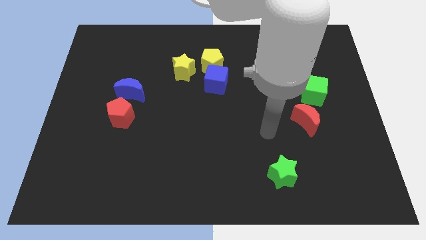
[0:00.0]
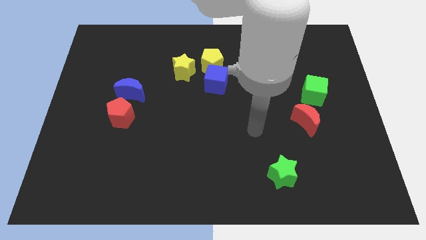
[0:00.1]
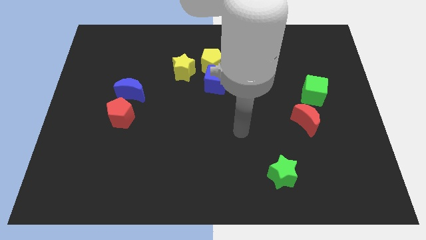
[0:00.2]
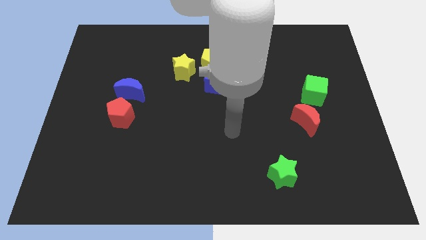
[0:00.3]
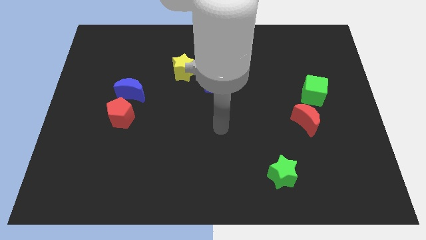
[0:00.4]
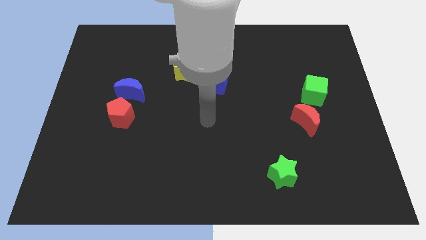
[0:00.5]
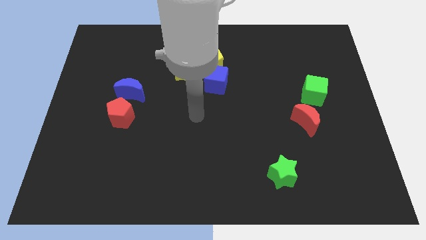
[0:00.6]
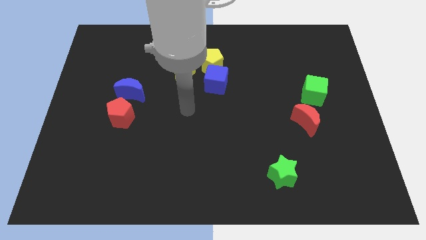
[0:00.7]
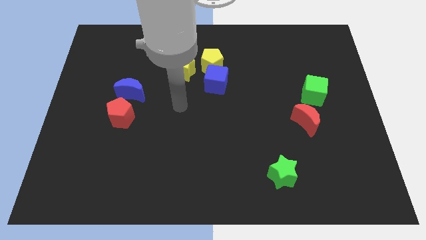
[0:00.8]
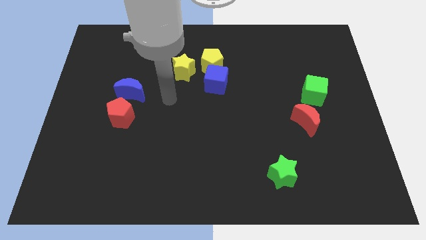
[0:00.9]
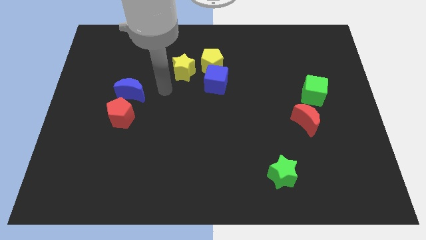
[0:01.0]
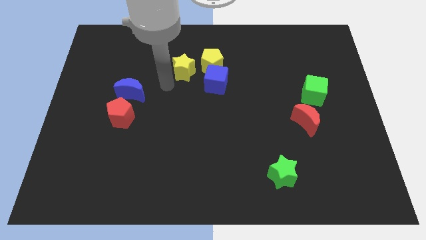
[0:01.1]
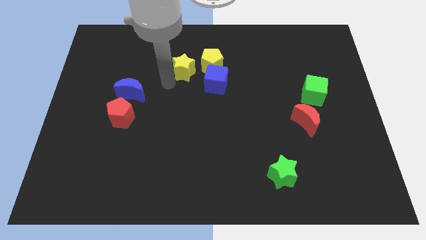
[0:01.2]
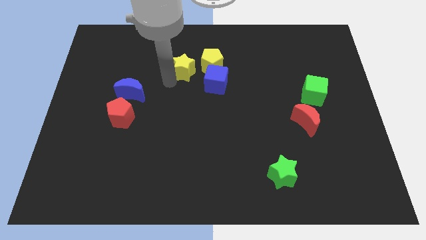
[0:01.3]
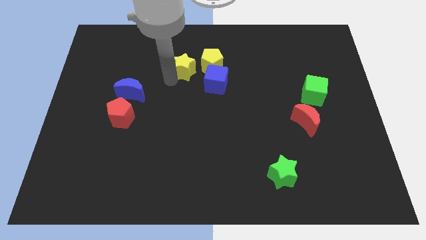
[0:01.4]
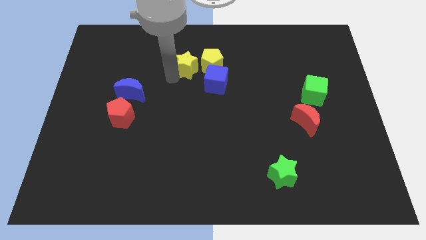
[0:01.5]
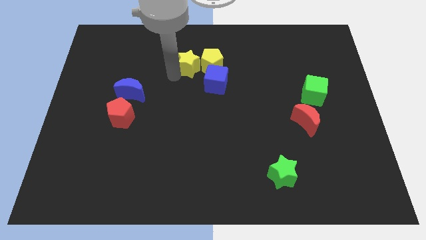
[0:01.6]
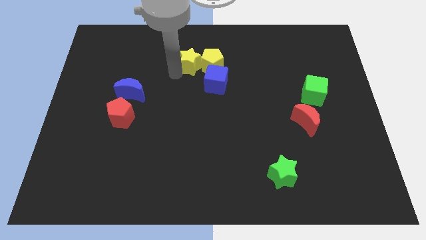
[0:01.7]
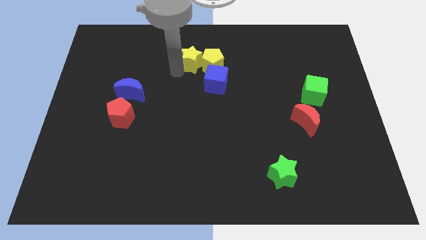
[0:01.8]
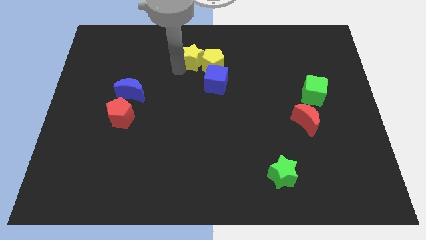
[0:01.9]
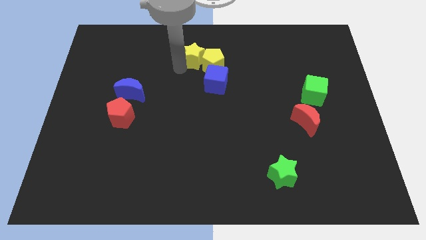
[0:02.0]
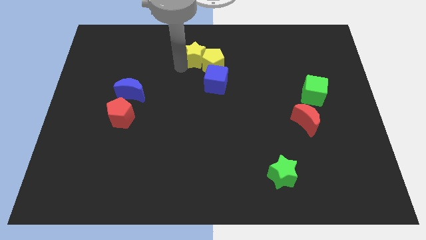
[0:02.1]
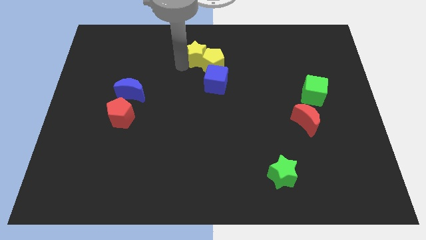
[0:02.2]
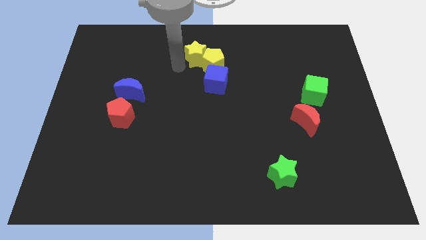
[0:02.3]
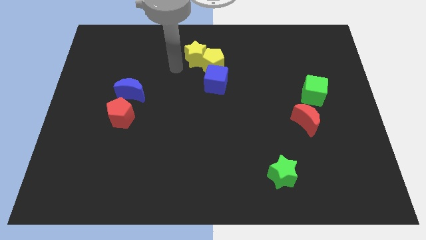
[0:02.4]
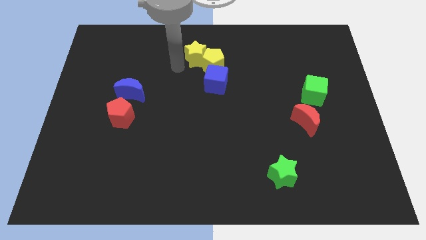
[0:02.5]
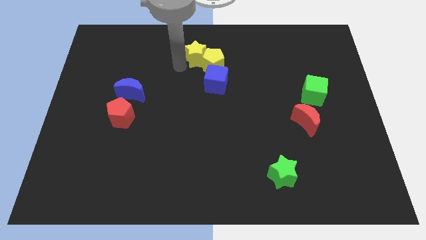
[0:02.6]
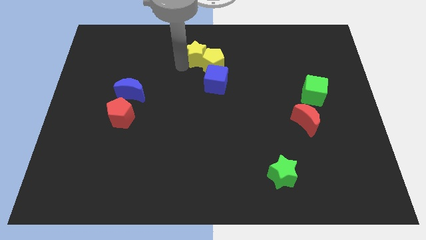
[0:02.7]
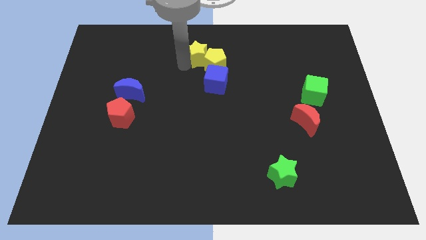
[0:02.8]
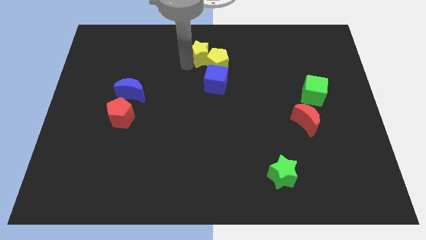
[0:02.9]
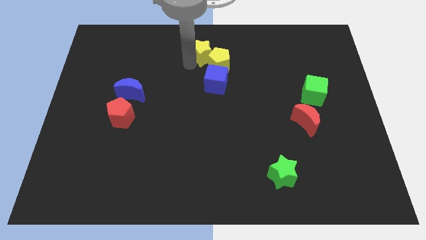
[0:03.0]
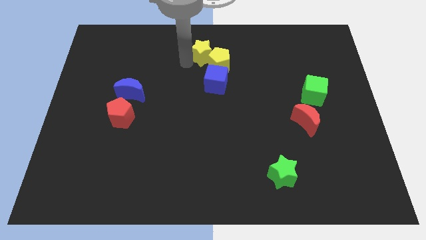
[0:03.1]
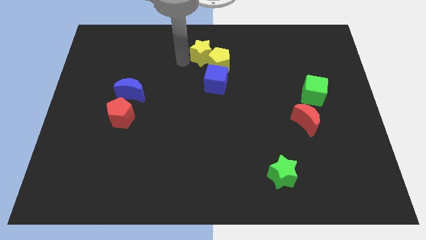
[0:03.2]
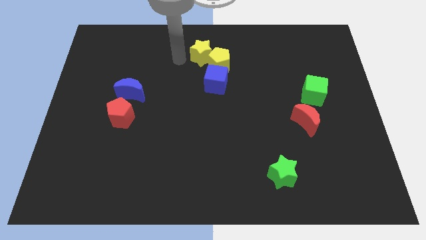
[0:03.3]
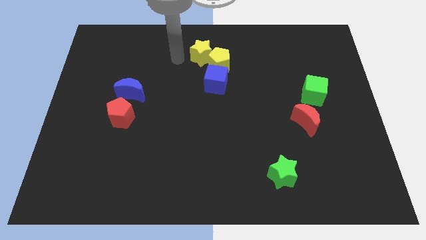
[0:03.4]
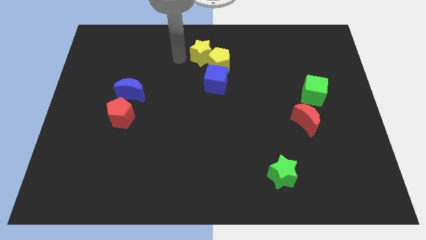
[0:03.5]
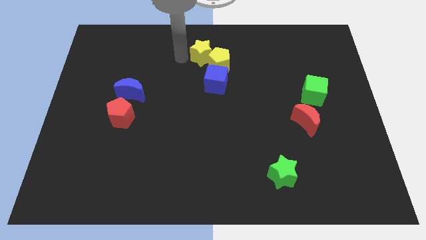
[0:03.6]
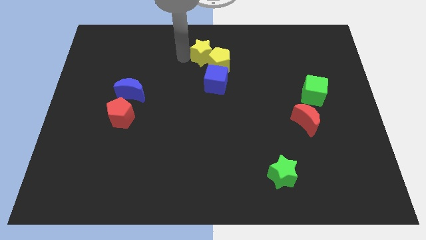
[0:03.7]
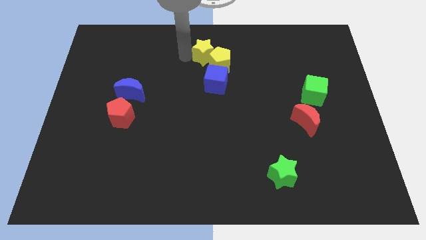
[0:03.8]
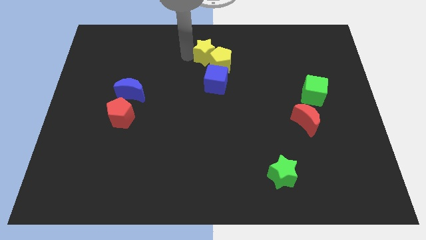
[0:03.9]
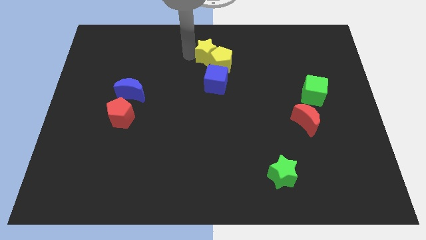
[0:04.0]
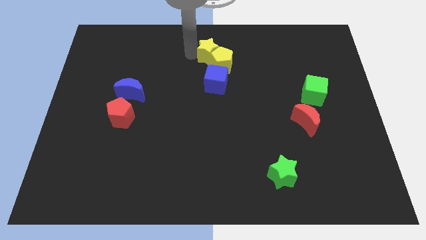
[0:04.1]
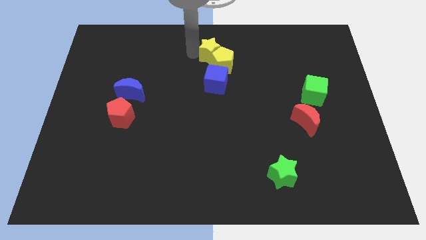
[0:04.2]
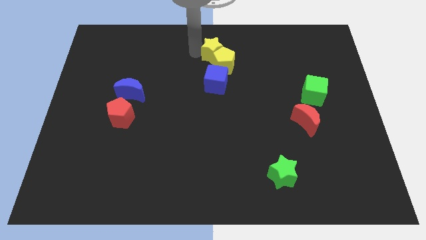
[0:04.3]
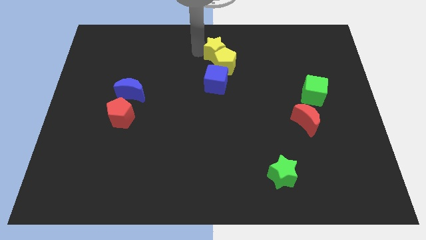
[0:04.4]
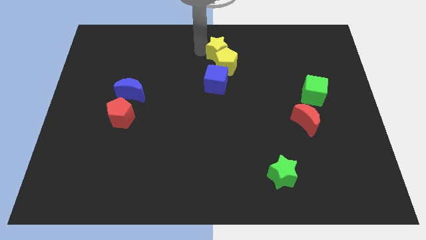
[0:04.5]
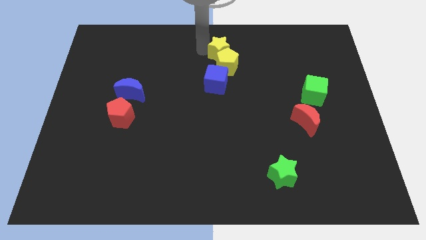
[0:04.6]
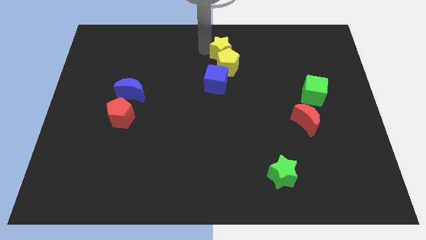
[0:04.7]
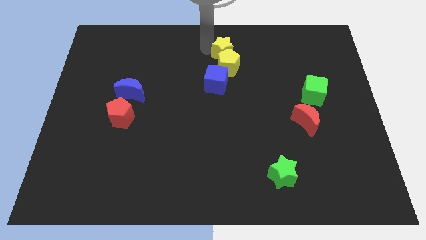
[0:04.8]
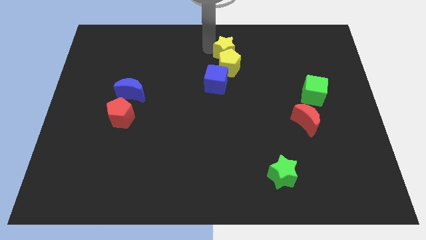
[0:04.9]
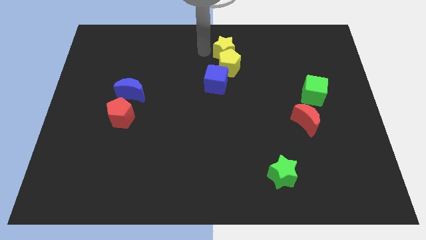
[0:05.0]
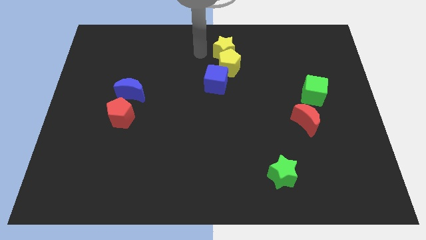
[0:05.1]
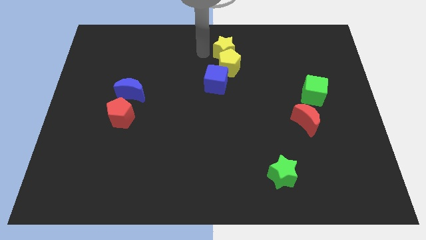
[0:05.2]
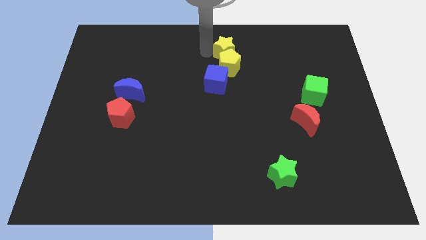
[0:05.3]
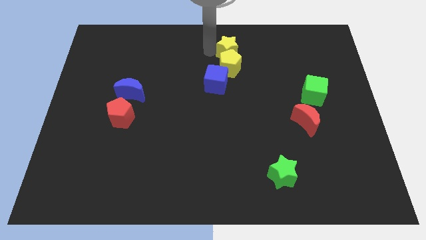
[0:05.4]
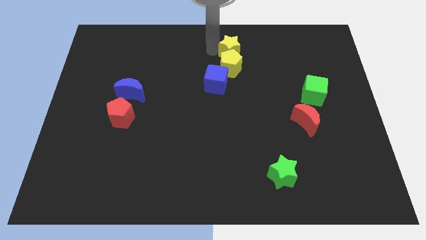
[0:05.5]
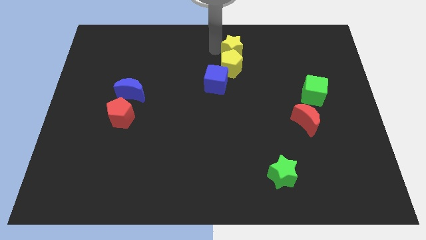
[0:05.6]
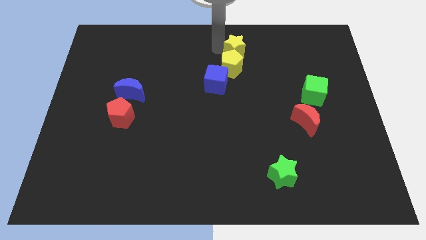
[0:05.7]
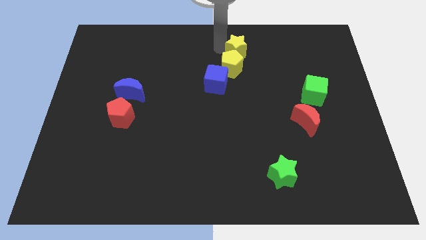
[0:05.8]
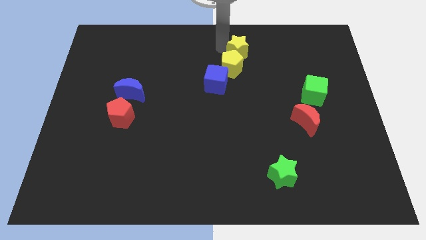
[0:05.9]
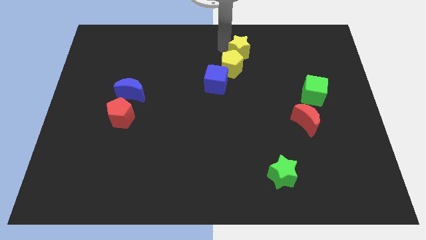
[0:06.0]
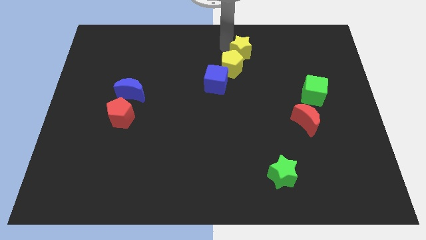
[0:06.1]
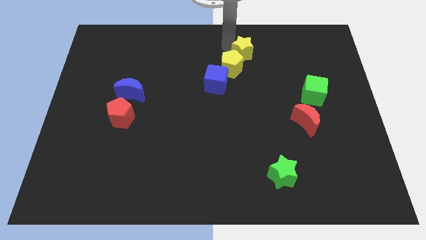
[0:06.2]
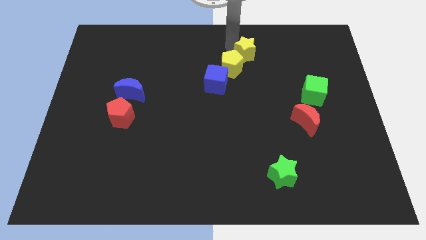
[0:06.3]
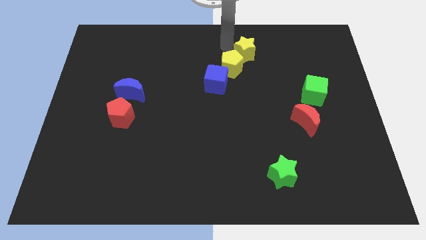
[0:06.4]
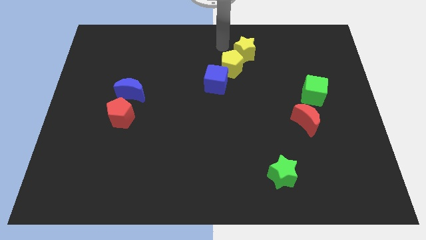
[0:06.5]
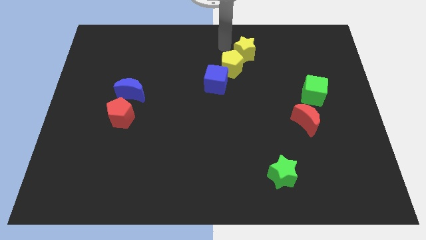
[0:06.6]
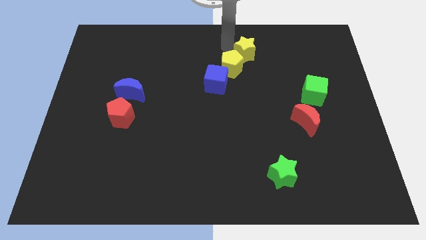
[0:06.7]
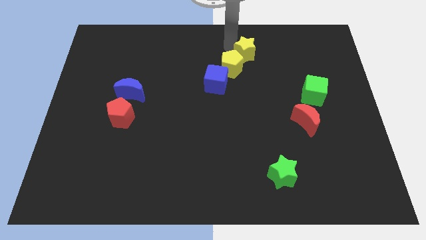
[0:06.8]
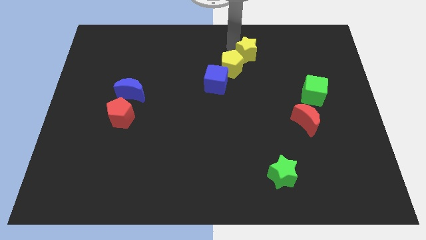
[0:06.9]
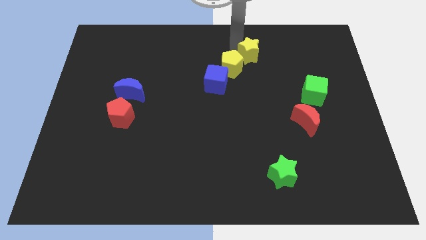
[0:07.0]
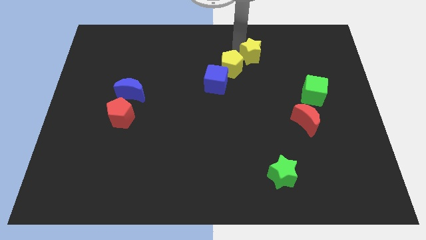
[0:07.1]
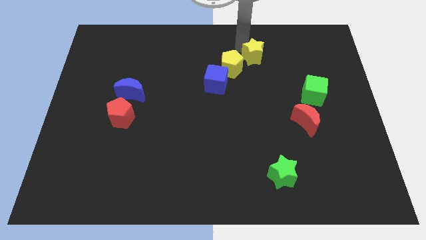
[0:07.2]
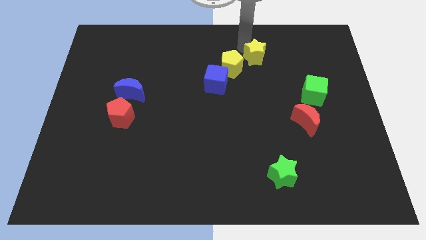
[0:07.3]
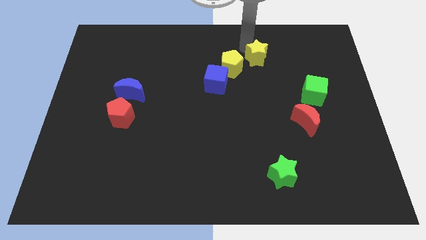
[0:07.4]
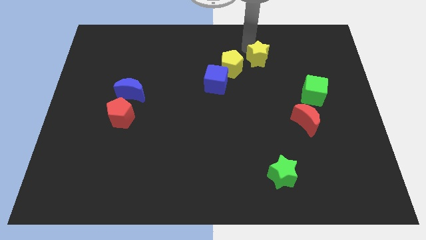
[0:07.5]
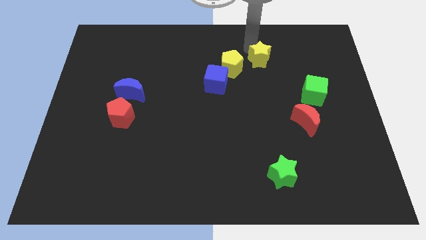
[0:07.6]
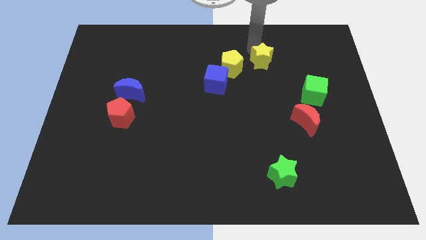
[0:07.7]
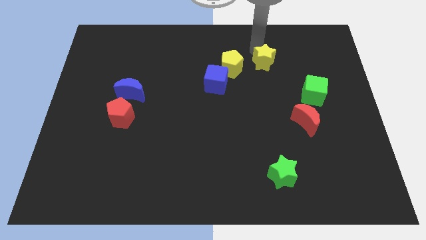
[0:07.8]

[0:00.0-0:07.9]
push the yellow star right
